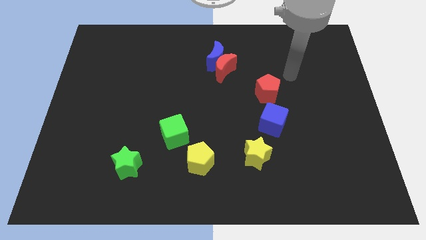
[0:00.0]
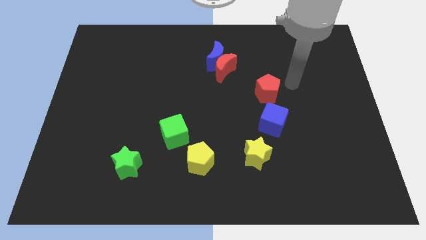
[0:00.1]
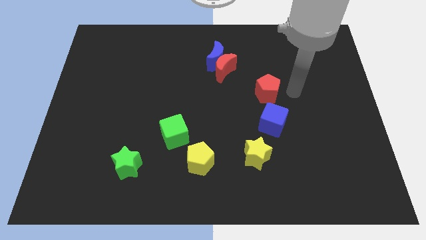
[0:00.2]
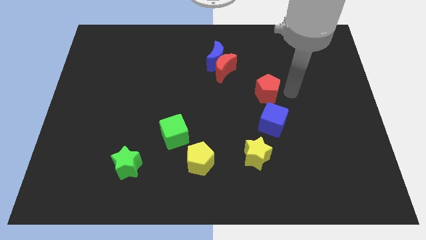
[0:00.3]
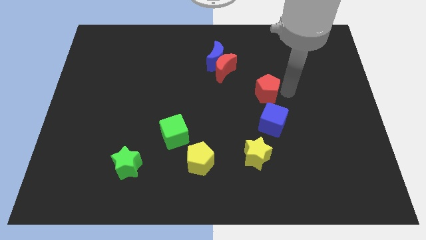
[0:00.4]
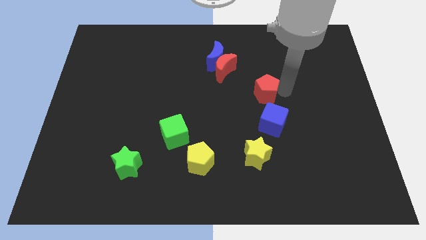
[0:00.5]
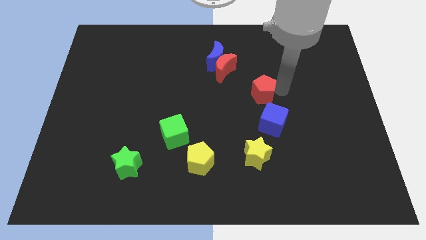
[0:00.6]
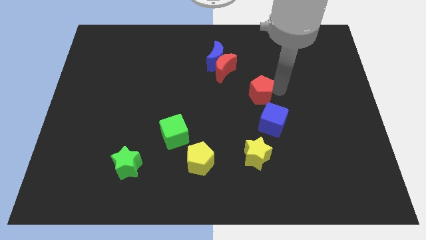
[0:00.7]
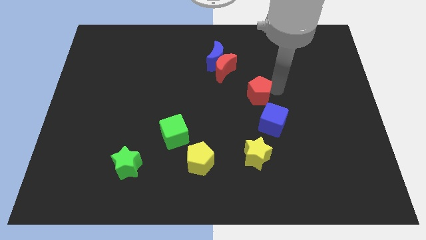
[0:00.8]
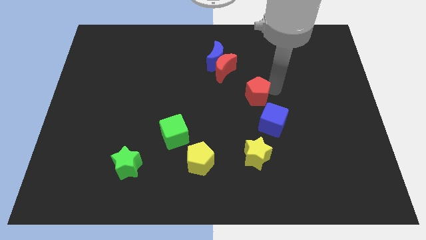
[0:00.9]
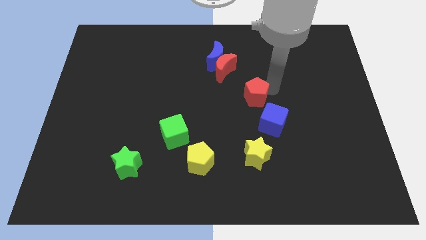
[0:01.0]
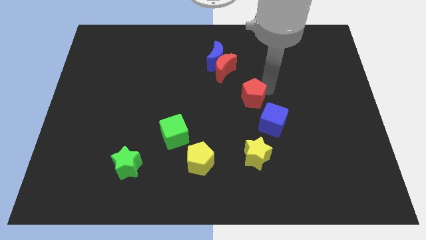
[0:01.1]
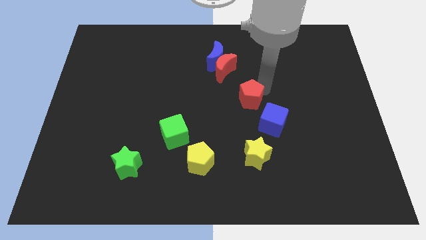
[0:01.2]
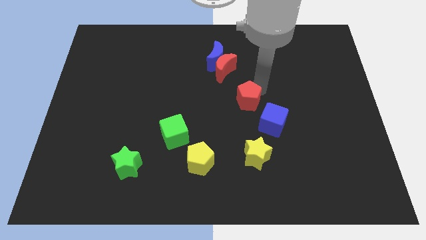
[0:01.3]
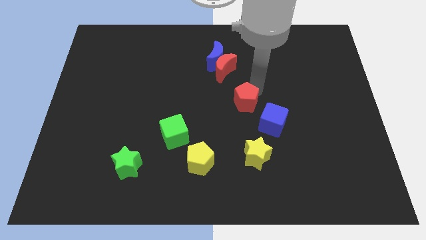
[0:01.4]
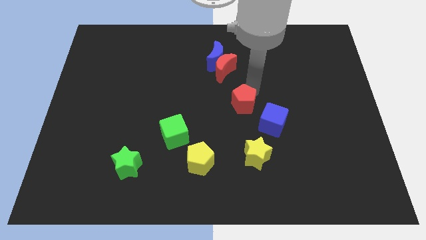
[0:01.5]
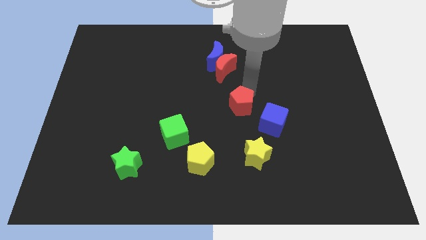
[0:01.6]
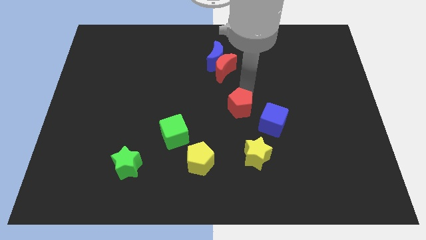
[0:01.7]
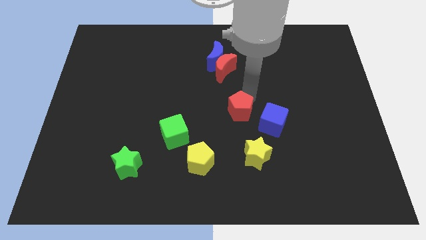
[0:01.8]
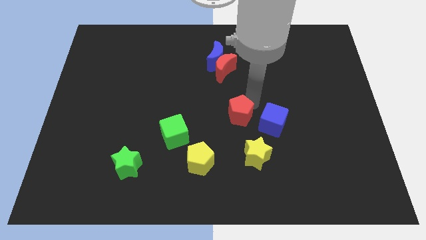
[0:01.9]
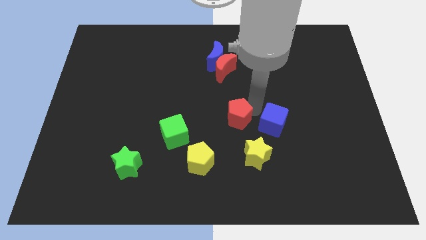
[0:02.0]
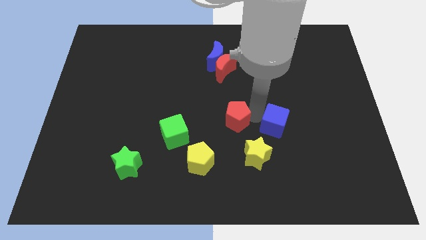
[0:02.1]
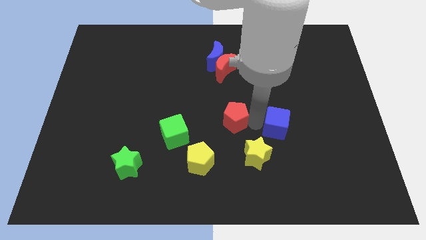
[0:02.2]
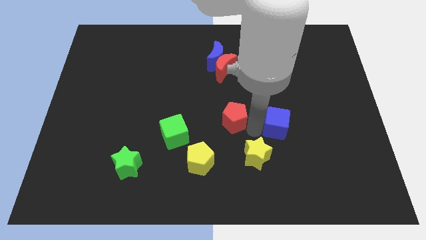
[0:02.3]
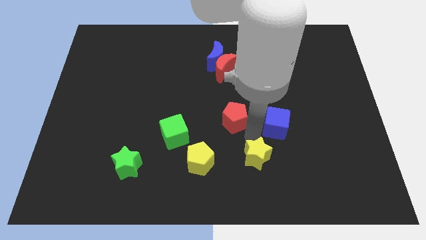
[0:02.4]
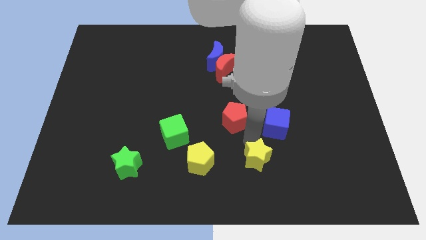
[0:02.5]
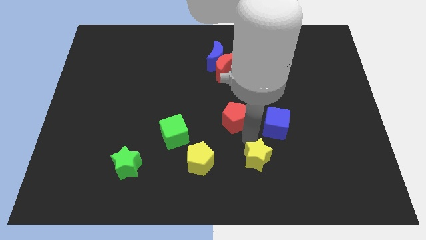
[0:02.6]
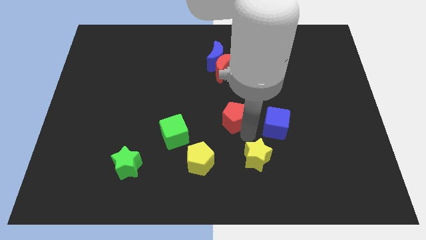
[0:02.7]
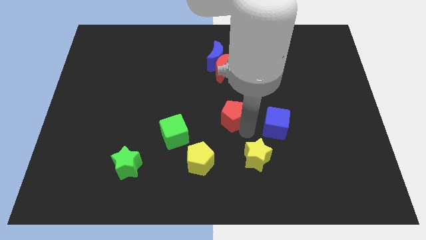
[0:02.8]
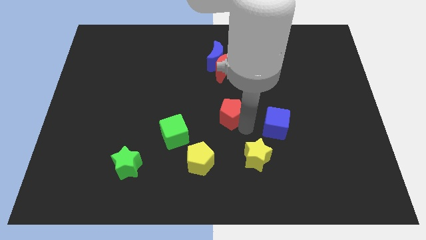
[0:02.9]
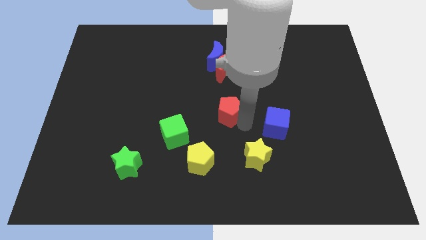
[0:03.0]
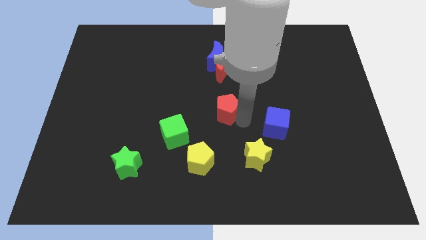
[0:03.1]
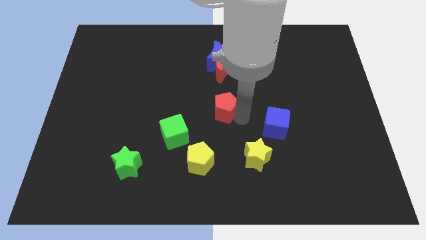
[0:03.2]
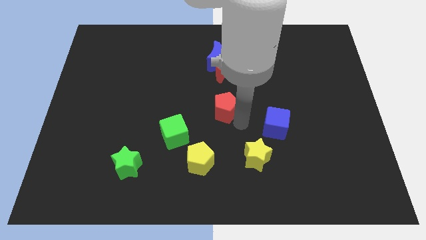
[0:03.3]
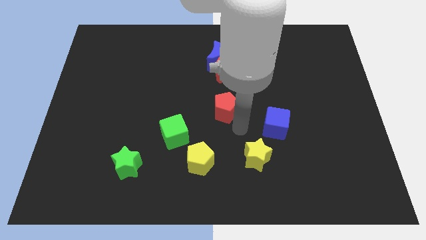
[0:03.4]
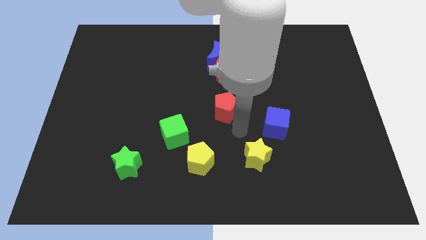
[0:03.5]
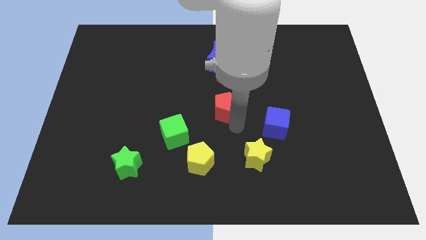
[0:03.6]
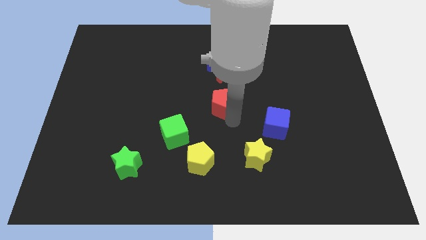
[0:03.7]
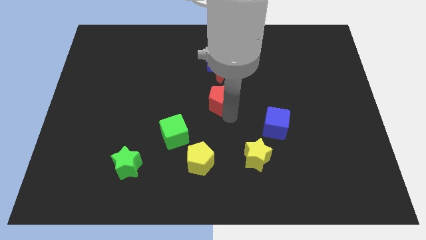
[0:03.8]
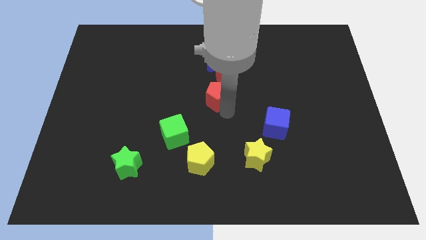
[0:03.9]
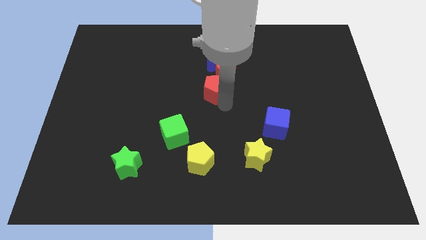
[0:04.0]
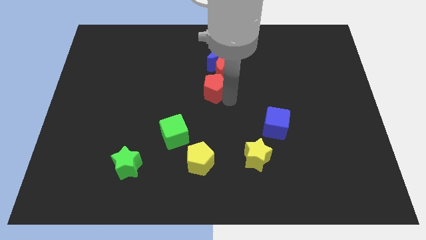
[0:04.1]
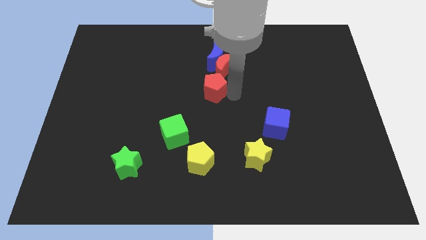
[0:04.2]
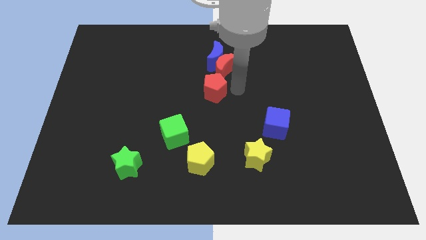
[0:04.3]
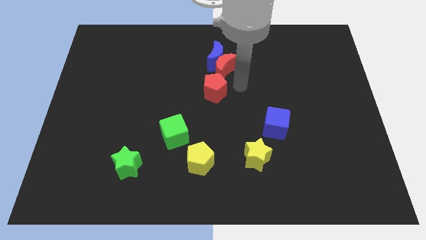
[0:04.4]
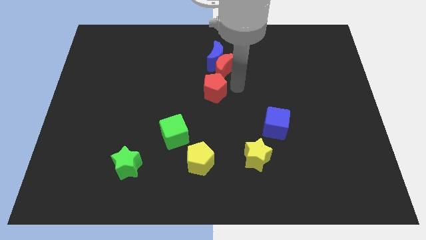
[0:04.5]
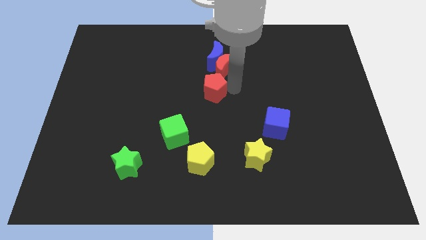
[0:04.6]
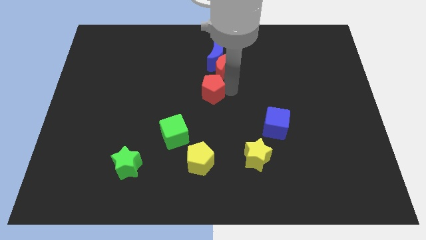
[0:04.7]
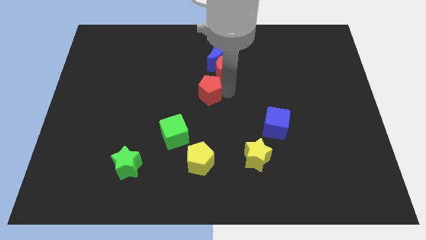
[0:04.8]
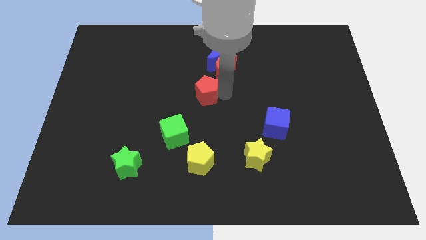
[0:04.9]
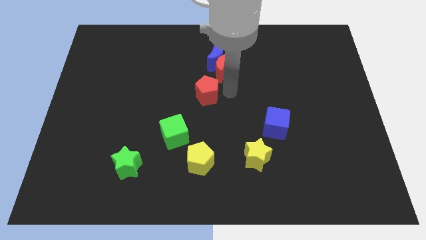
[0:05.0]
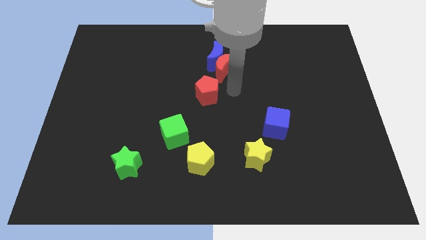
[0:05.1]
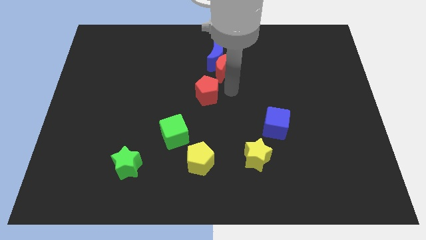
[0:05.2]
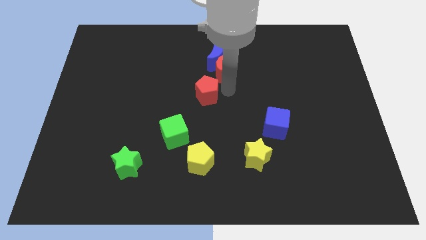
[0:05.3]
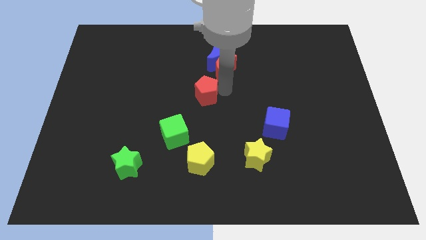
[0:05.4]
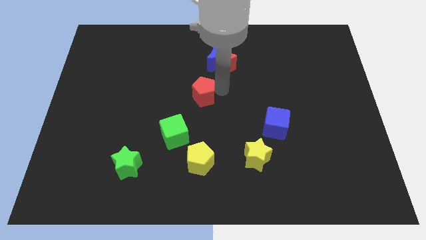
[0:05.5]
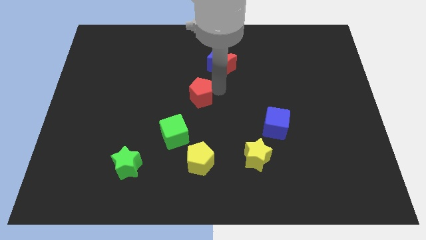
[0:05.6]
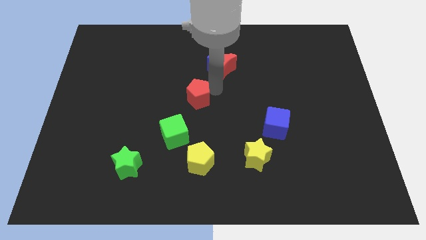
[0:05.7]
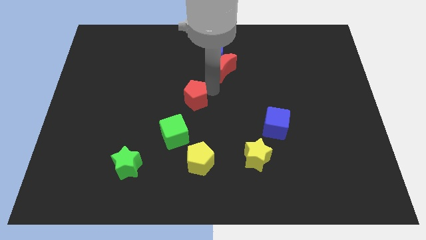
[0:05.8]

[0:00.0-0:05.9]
put the red pentagon to the top of the green cube

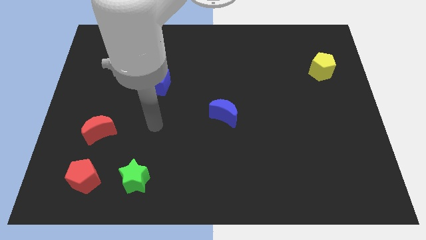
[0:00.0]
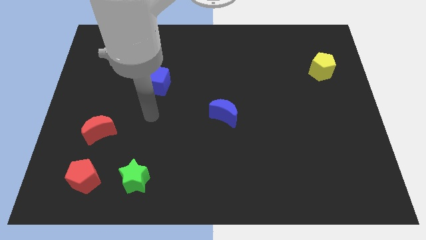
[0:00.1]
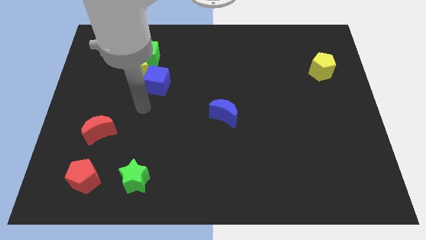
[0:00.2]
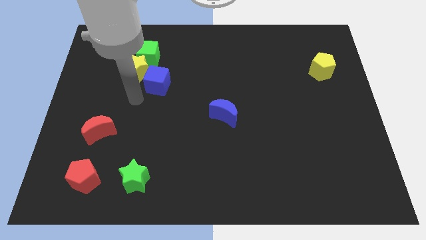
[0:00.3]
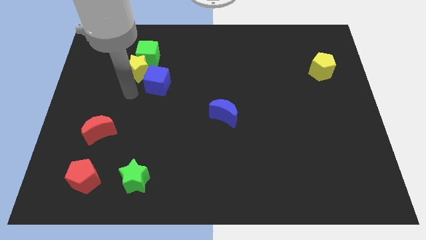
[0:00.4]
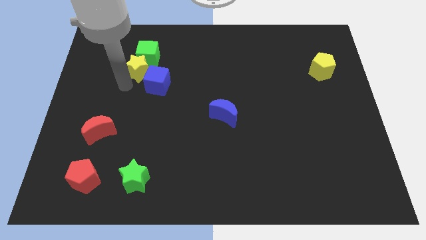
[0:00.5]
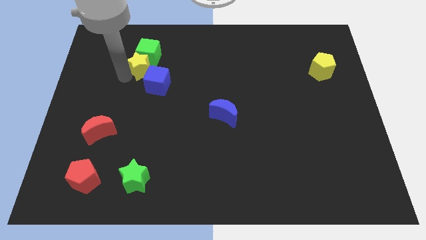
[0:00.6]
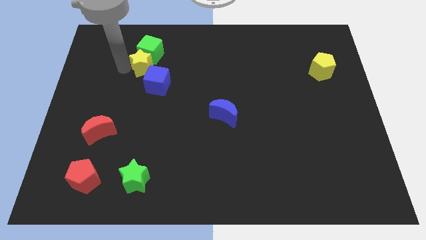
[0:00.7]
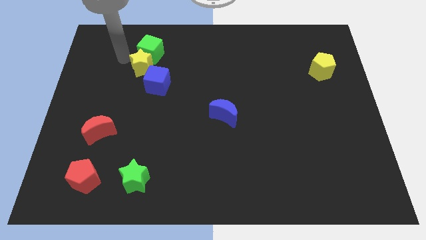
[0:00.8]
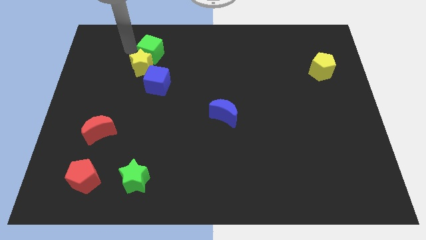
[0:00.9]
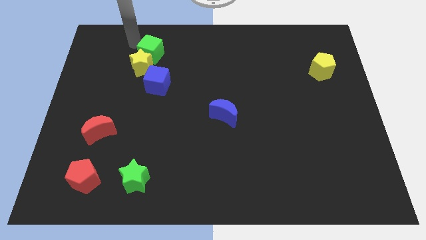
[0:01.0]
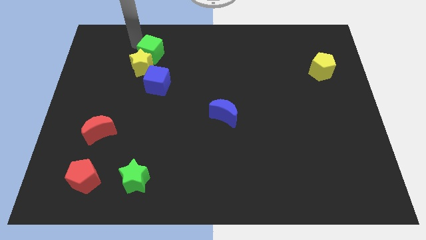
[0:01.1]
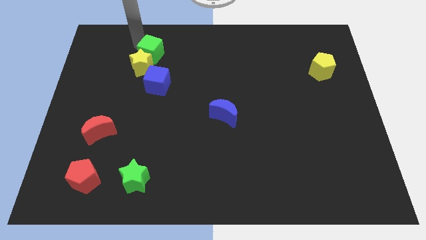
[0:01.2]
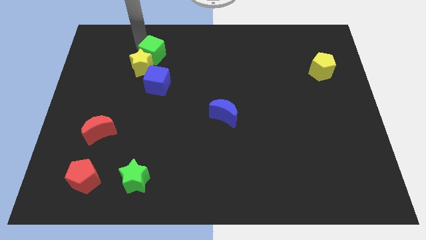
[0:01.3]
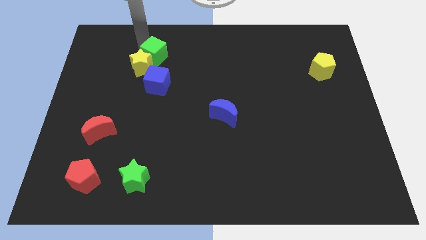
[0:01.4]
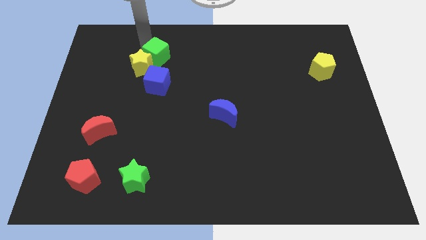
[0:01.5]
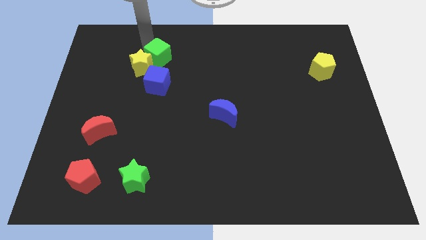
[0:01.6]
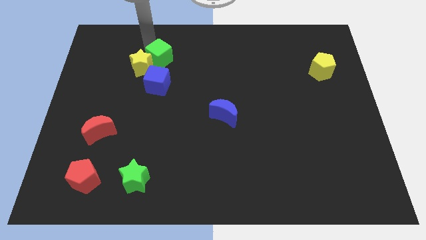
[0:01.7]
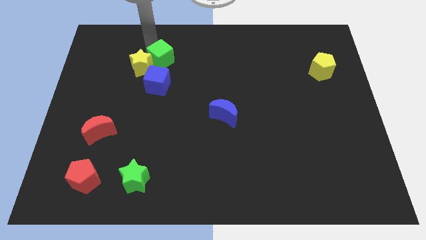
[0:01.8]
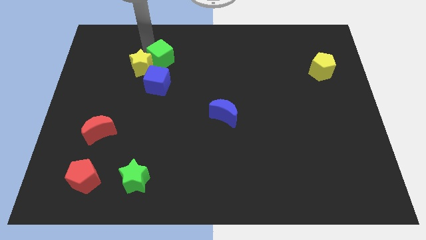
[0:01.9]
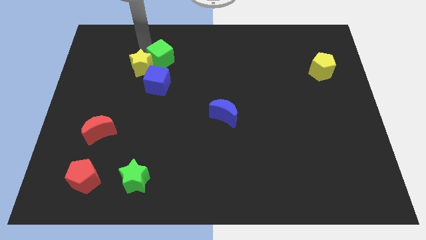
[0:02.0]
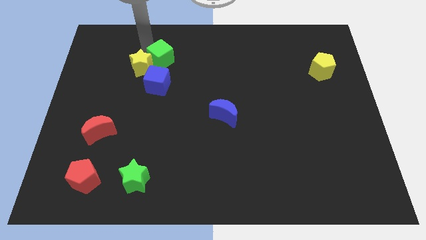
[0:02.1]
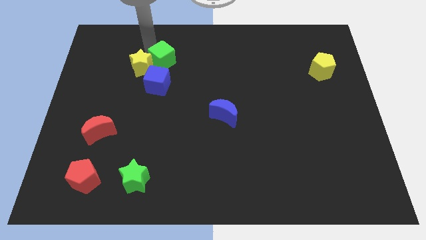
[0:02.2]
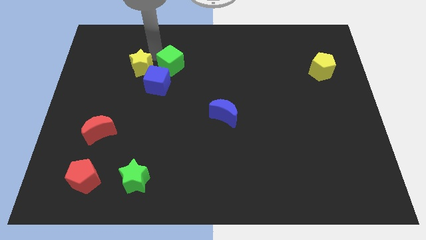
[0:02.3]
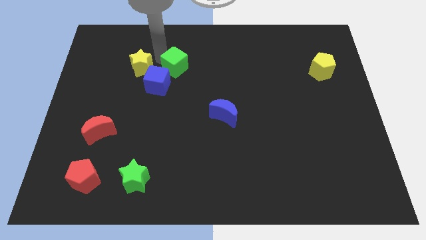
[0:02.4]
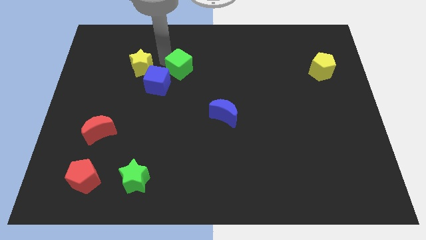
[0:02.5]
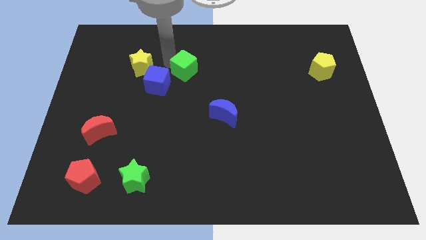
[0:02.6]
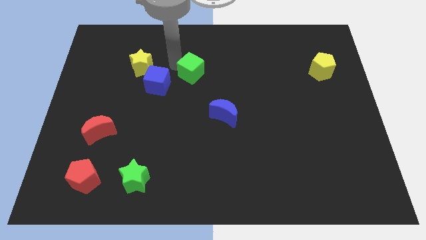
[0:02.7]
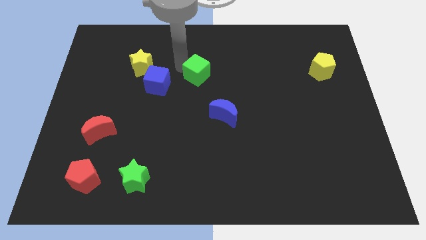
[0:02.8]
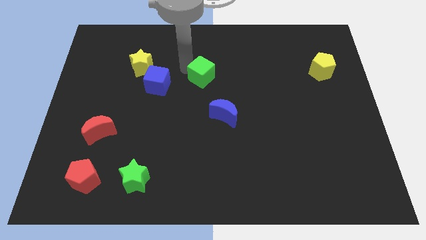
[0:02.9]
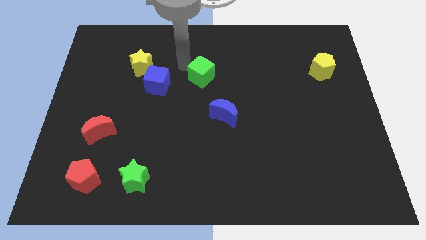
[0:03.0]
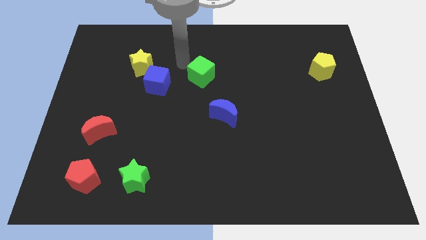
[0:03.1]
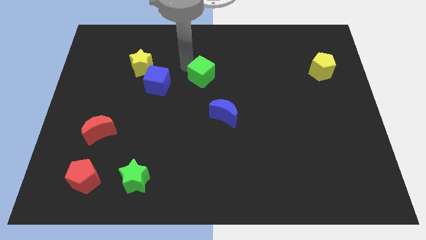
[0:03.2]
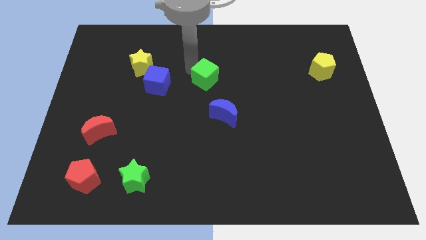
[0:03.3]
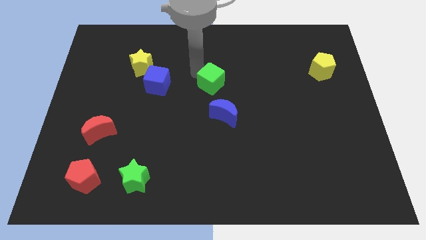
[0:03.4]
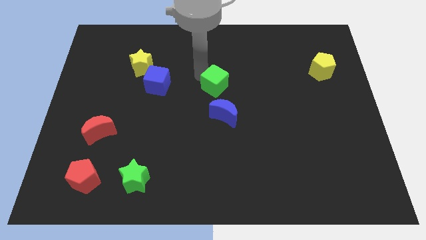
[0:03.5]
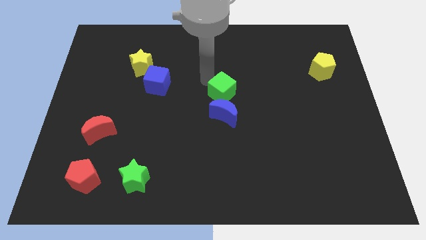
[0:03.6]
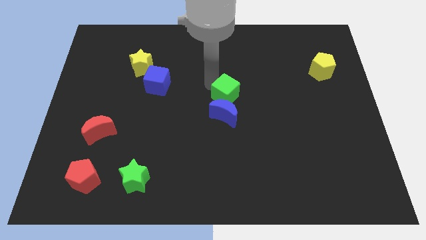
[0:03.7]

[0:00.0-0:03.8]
push the green cube diagonally up and to the right of the blue moon
